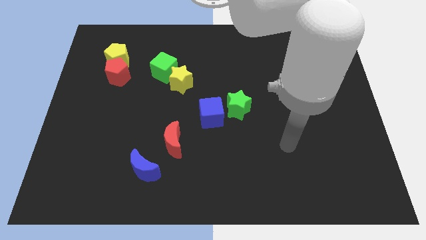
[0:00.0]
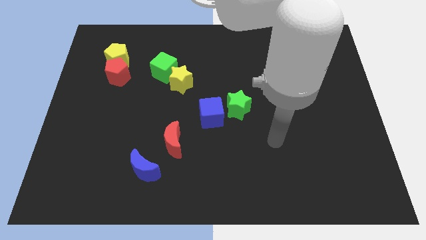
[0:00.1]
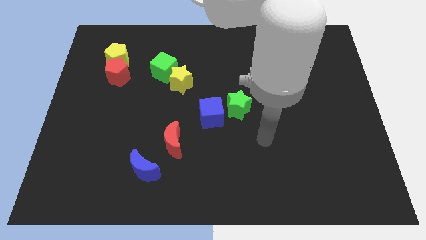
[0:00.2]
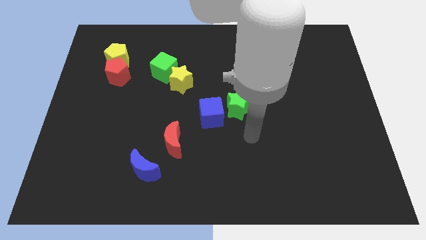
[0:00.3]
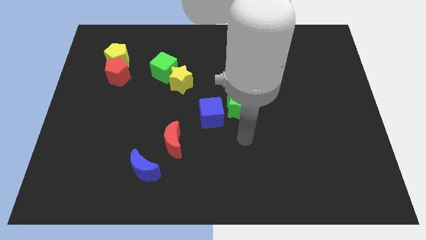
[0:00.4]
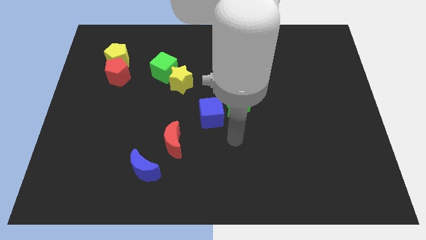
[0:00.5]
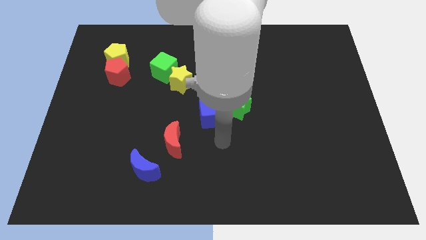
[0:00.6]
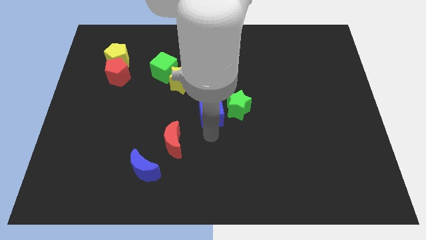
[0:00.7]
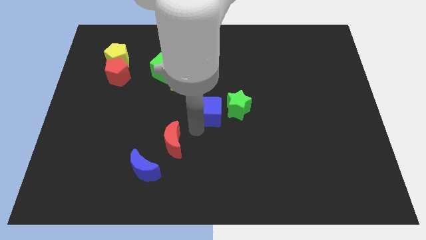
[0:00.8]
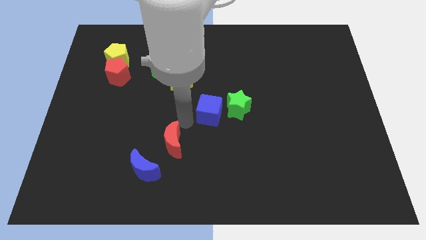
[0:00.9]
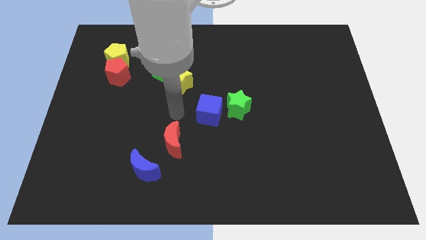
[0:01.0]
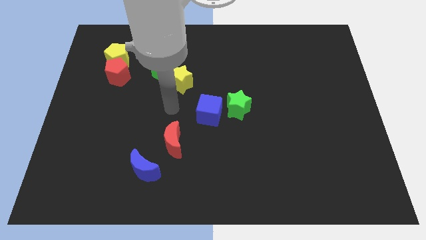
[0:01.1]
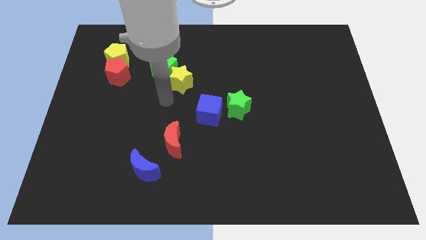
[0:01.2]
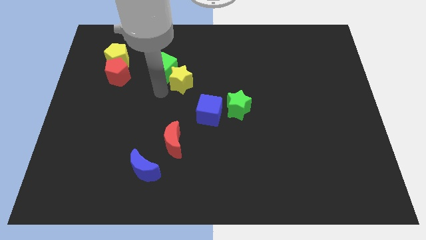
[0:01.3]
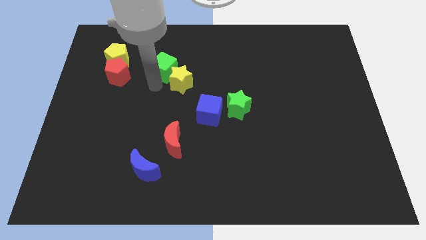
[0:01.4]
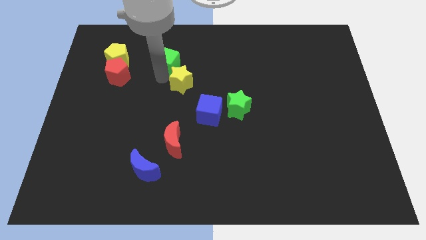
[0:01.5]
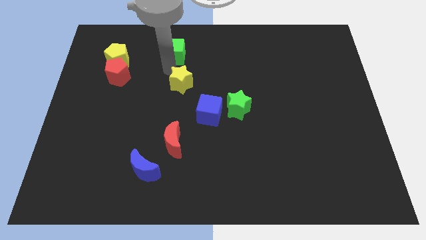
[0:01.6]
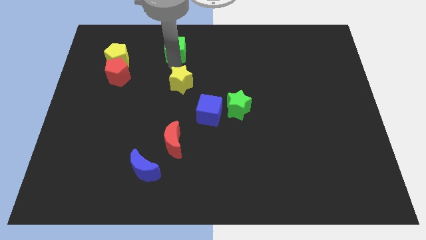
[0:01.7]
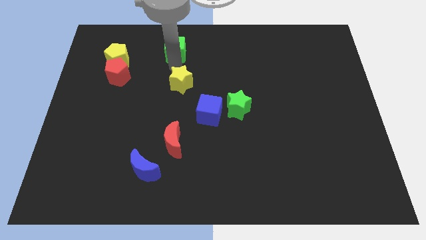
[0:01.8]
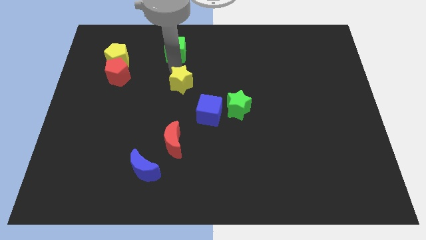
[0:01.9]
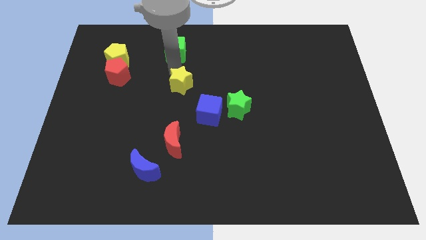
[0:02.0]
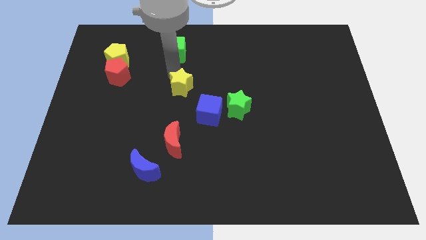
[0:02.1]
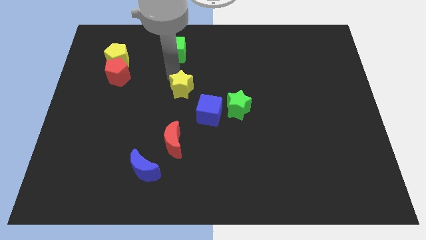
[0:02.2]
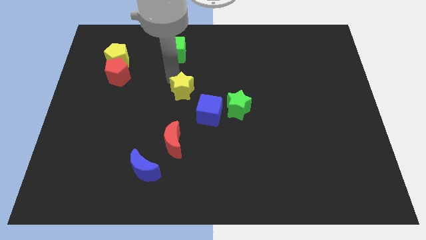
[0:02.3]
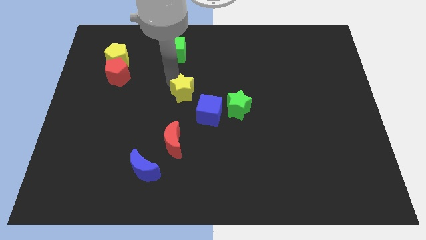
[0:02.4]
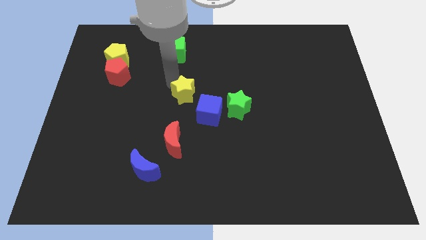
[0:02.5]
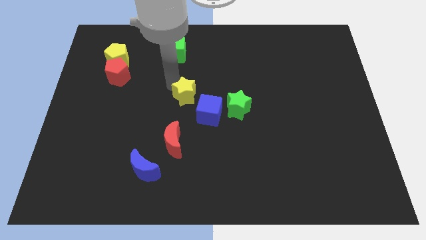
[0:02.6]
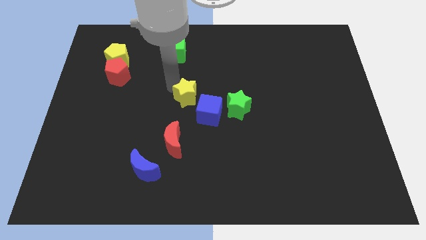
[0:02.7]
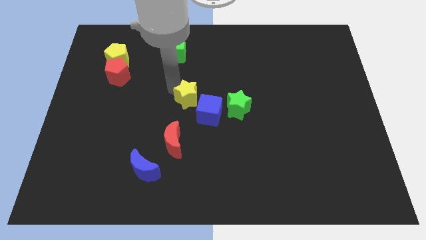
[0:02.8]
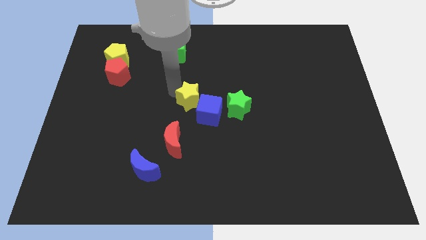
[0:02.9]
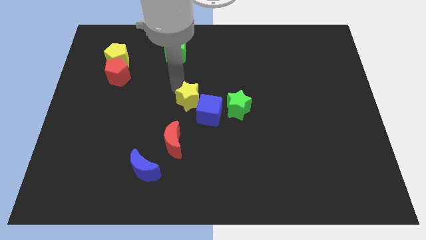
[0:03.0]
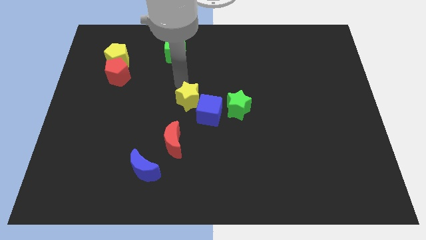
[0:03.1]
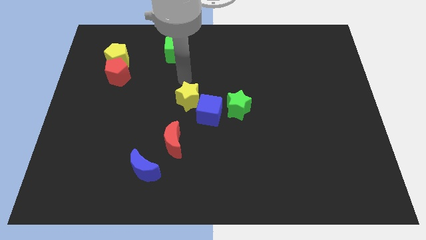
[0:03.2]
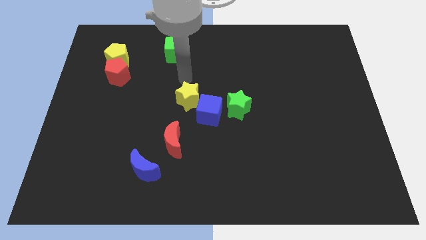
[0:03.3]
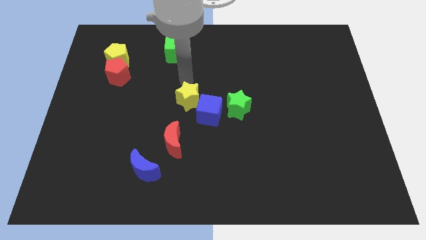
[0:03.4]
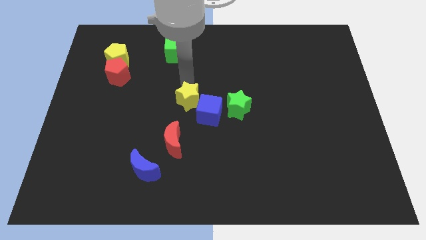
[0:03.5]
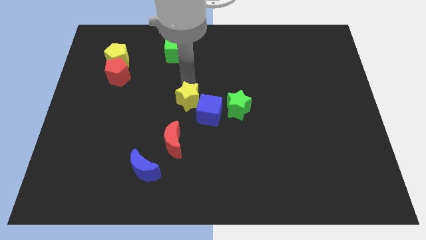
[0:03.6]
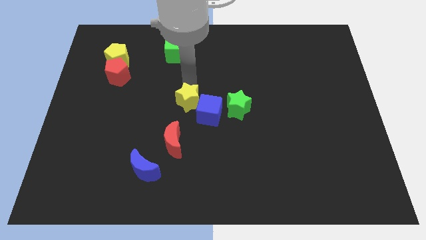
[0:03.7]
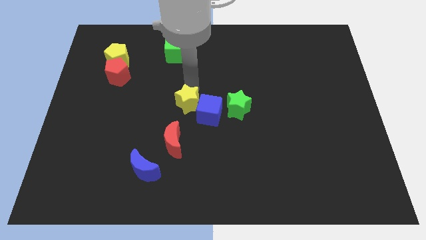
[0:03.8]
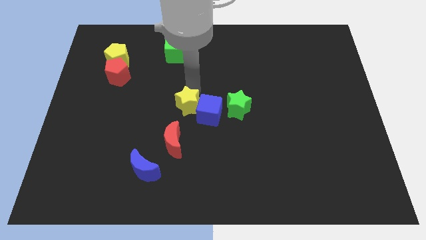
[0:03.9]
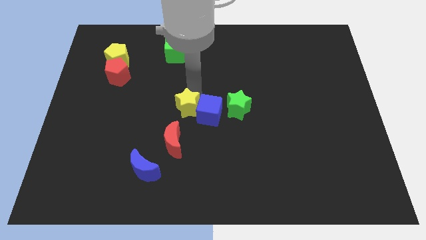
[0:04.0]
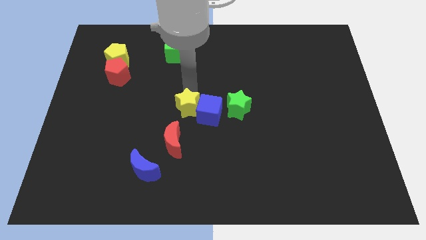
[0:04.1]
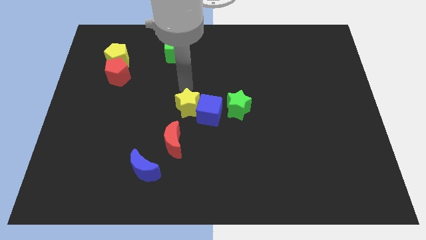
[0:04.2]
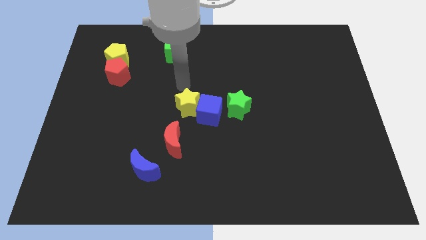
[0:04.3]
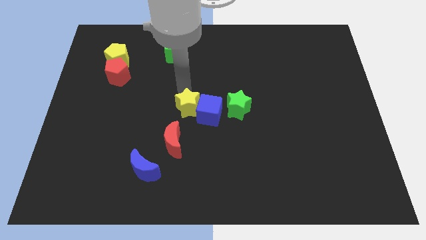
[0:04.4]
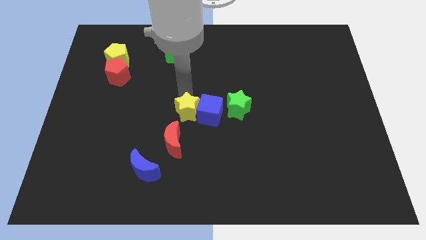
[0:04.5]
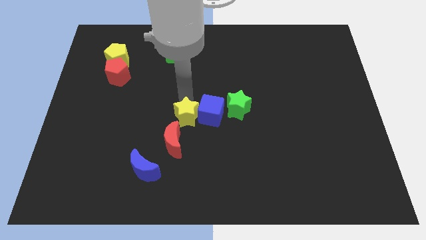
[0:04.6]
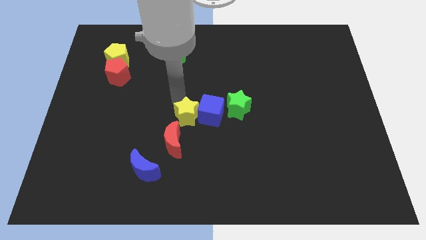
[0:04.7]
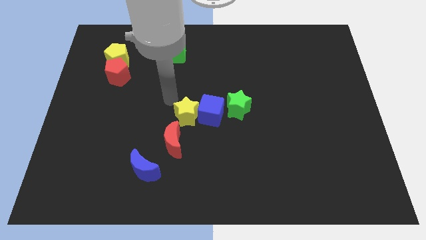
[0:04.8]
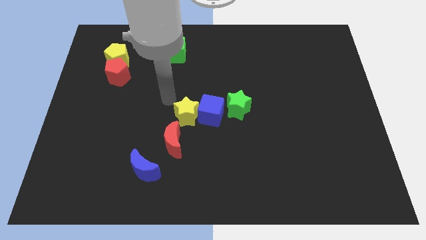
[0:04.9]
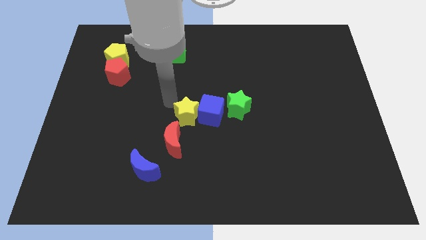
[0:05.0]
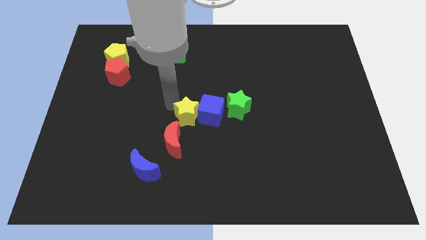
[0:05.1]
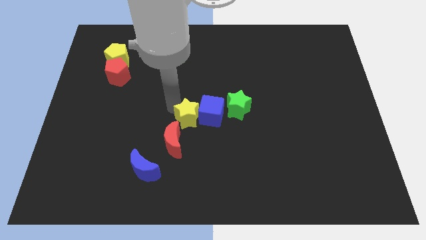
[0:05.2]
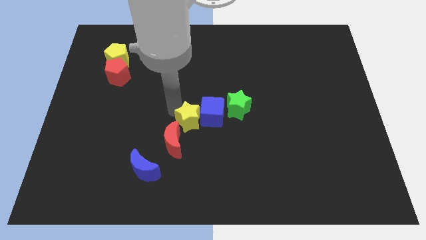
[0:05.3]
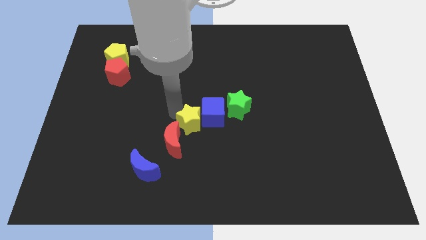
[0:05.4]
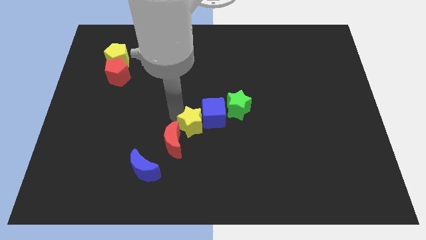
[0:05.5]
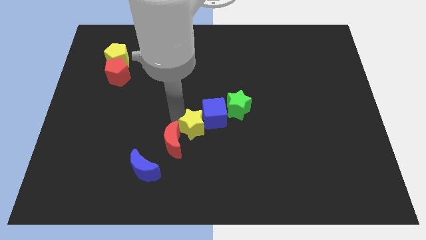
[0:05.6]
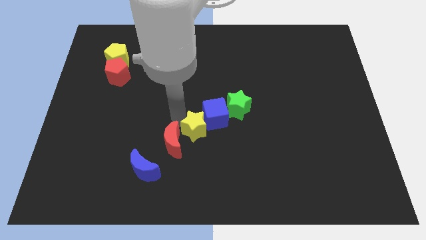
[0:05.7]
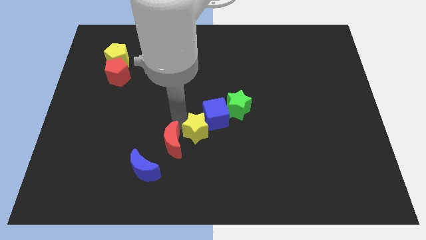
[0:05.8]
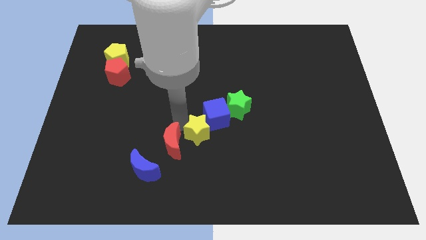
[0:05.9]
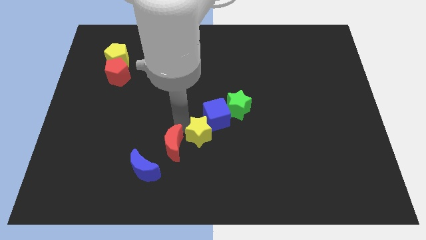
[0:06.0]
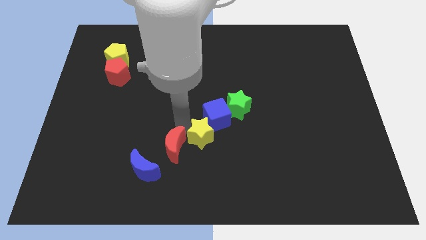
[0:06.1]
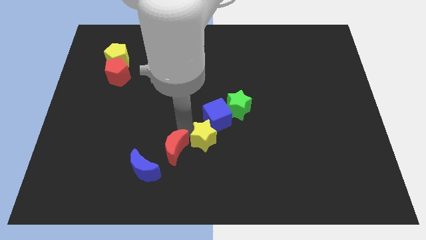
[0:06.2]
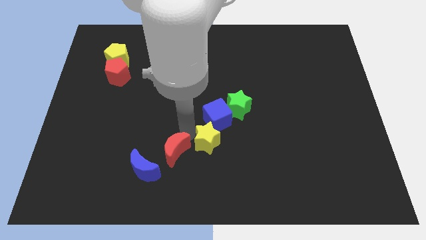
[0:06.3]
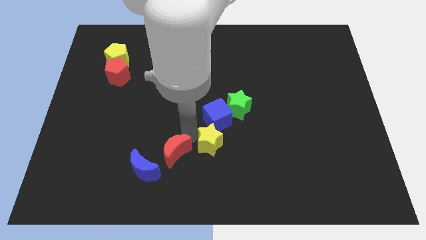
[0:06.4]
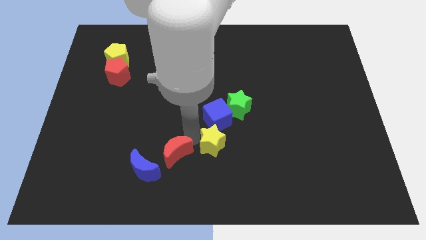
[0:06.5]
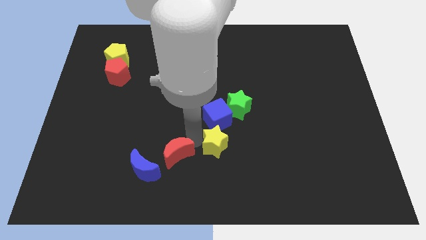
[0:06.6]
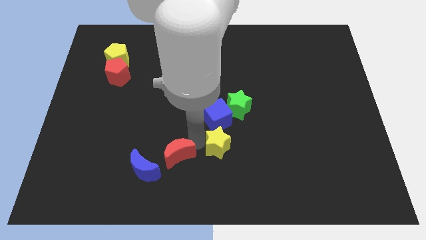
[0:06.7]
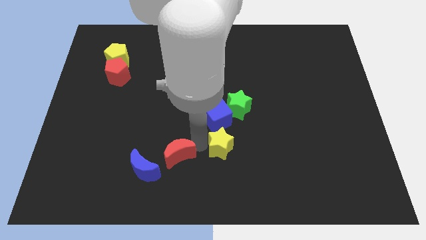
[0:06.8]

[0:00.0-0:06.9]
slide the yellow star to the bottom side of the green star

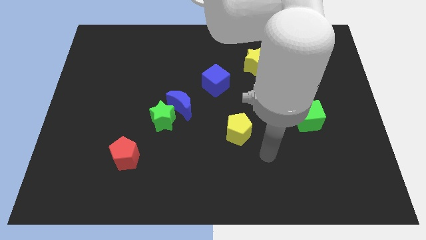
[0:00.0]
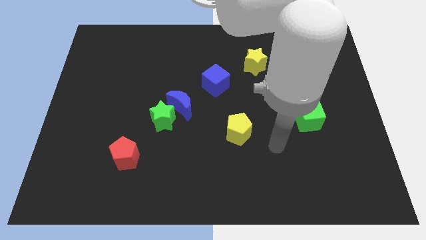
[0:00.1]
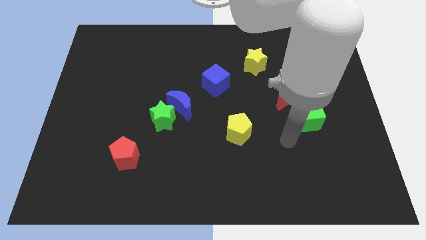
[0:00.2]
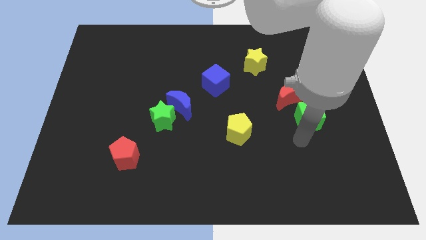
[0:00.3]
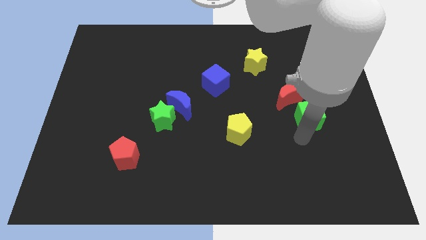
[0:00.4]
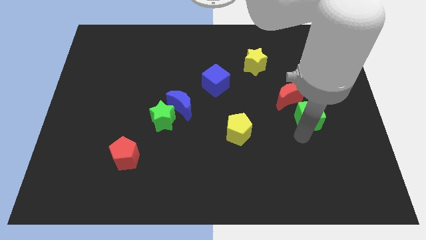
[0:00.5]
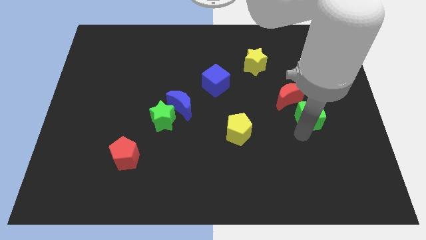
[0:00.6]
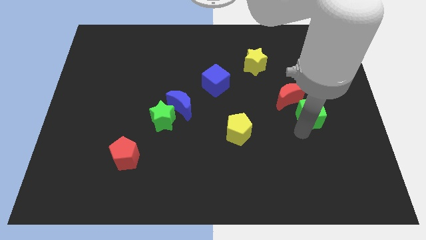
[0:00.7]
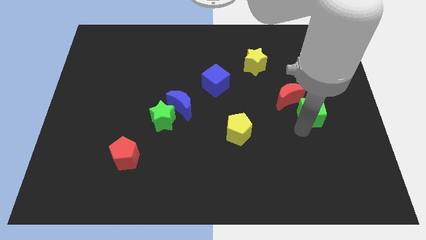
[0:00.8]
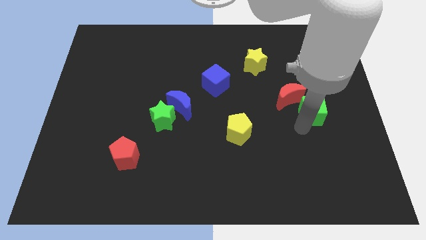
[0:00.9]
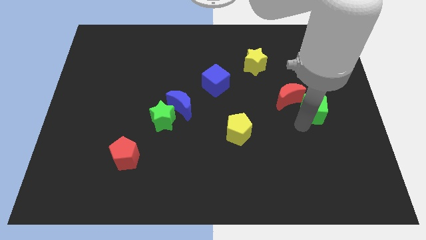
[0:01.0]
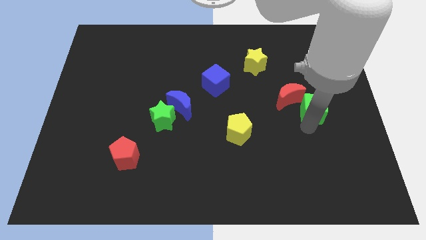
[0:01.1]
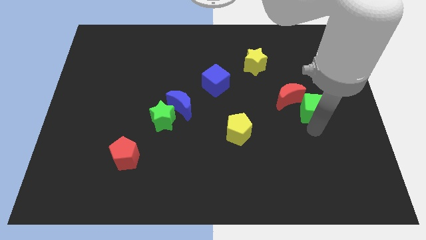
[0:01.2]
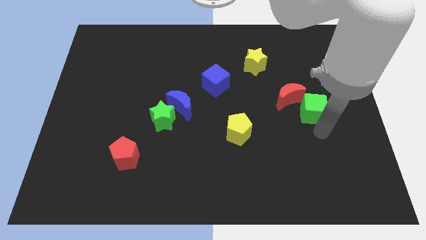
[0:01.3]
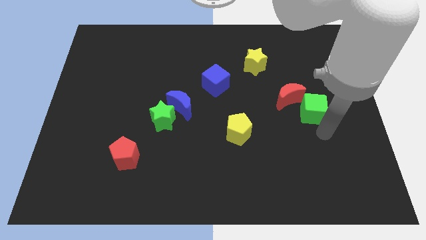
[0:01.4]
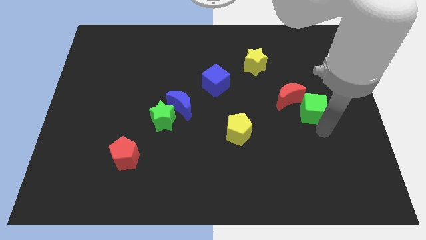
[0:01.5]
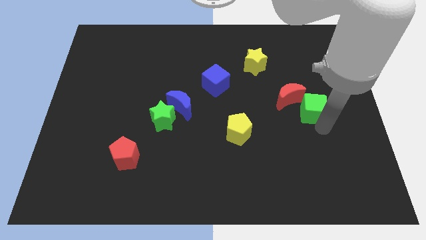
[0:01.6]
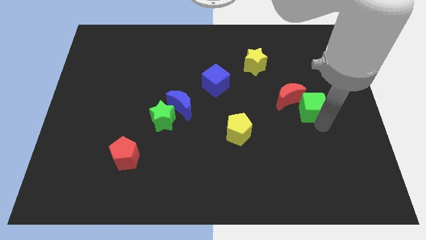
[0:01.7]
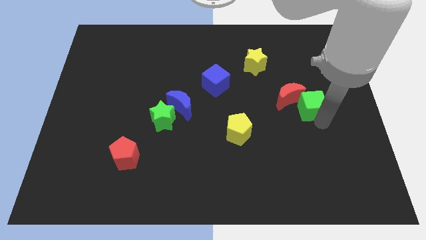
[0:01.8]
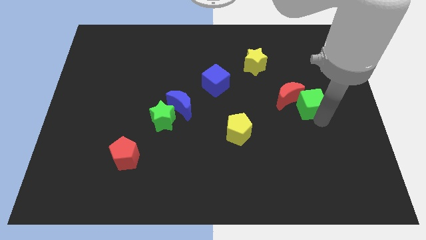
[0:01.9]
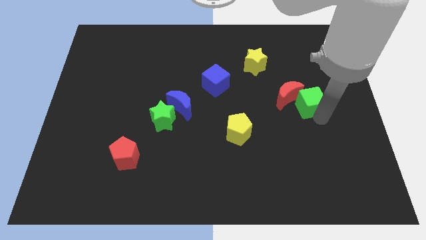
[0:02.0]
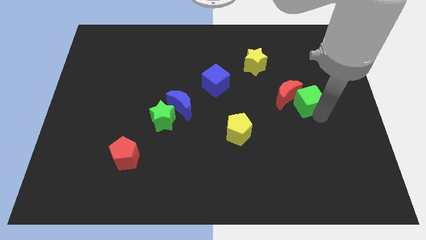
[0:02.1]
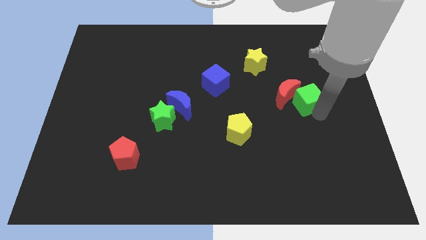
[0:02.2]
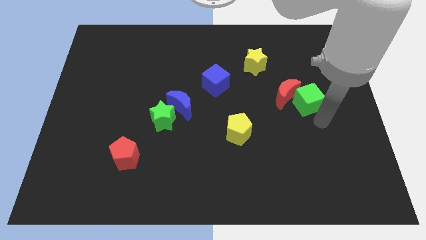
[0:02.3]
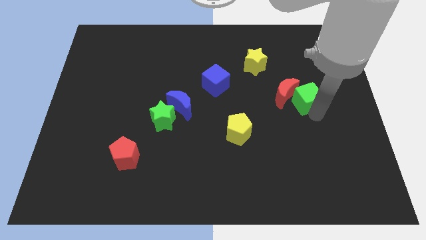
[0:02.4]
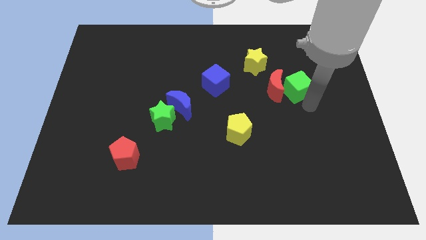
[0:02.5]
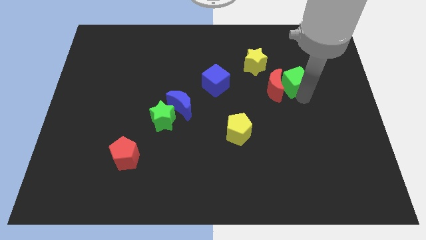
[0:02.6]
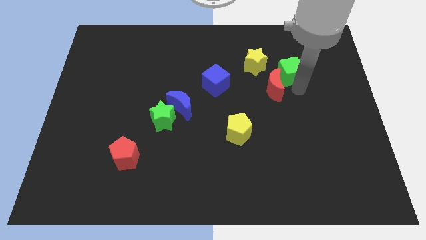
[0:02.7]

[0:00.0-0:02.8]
move the green cube to the top of the red moon
